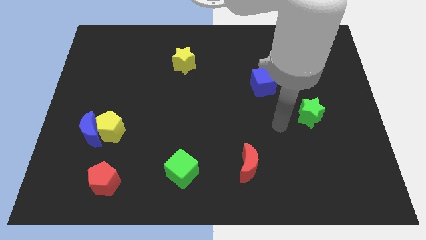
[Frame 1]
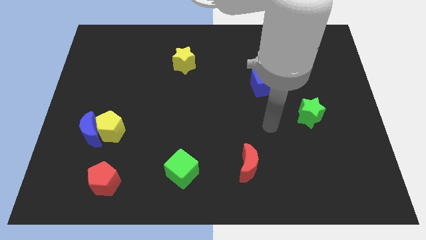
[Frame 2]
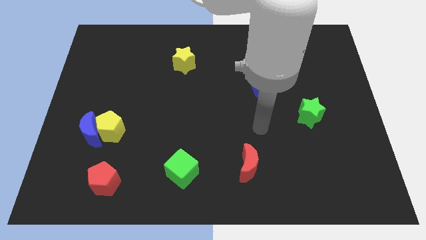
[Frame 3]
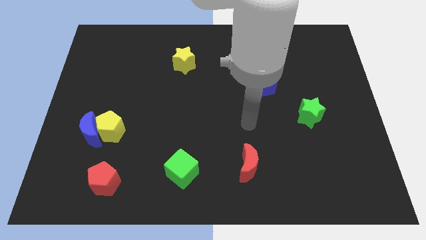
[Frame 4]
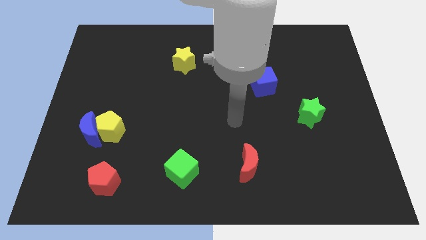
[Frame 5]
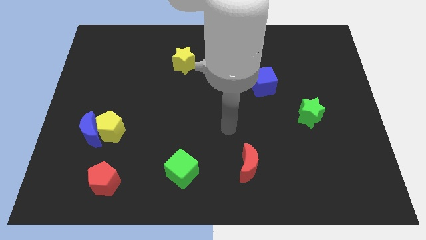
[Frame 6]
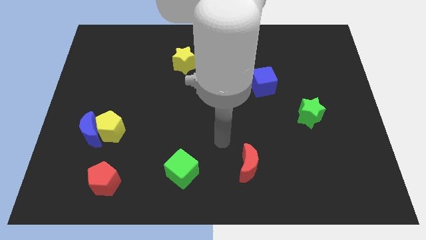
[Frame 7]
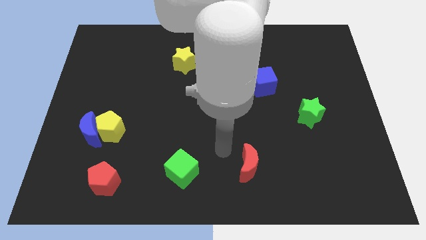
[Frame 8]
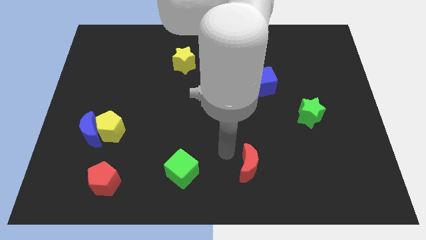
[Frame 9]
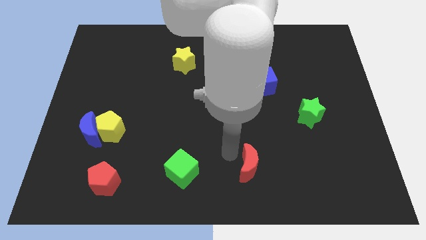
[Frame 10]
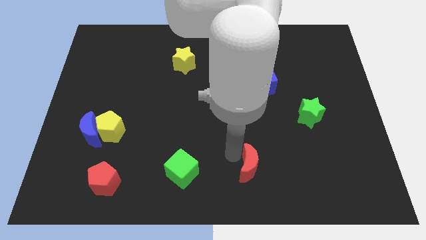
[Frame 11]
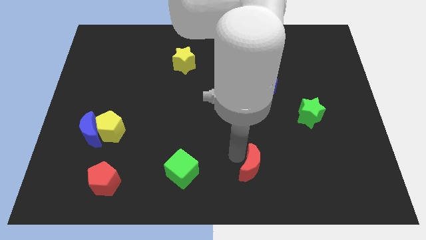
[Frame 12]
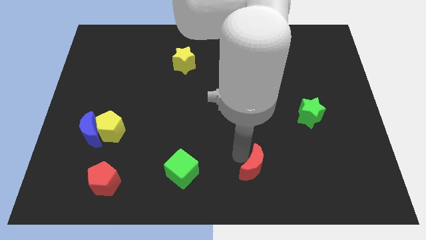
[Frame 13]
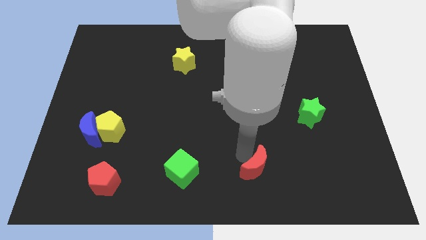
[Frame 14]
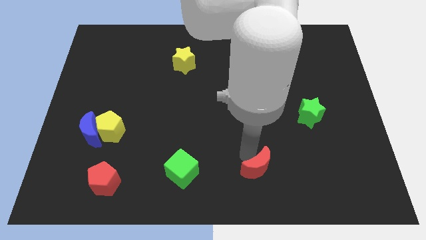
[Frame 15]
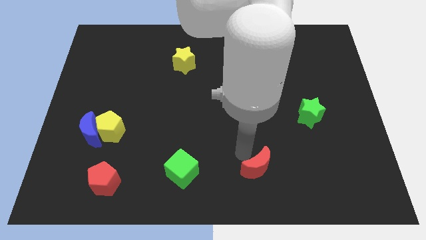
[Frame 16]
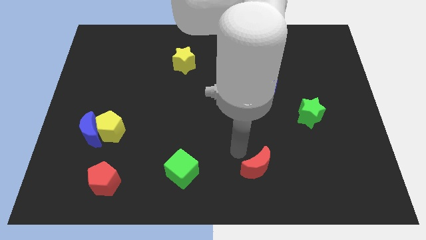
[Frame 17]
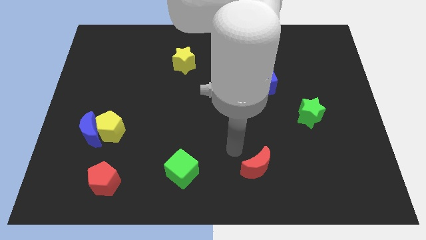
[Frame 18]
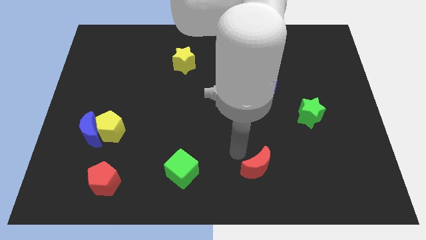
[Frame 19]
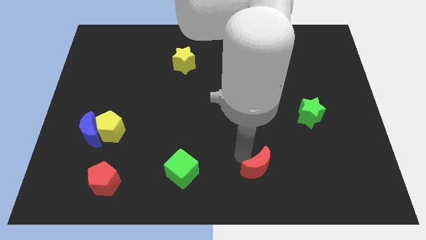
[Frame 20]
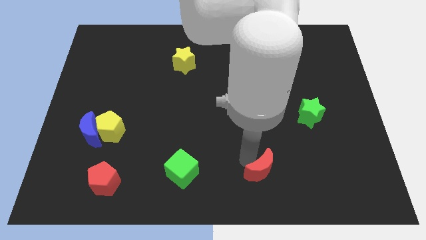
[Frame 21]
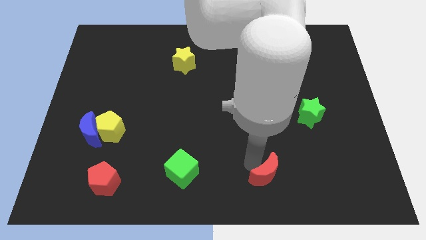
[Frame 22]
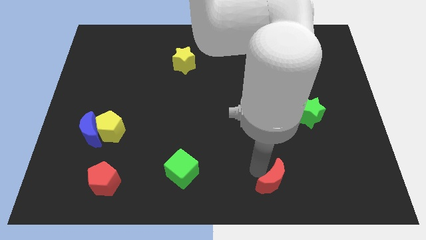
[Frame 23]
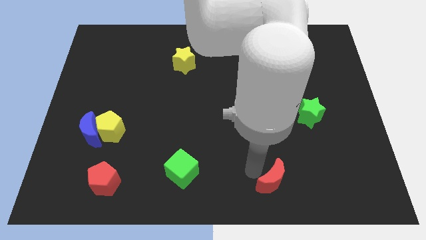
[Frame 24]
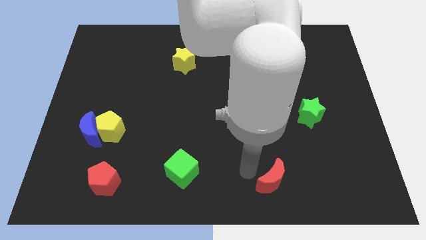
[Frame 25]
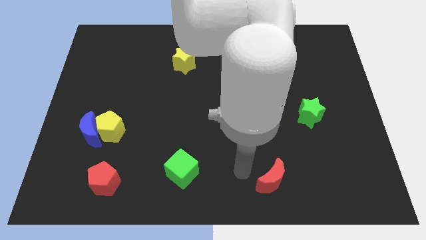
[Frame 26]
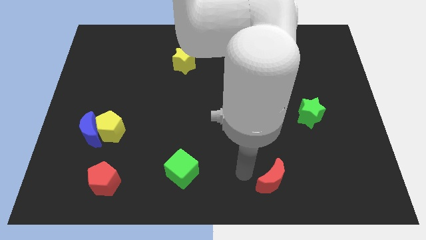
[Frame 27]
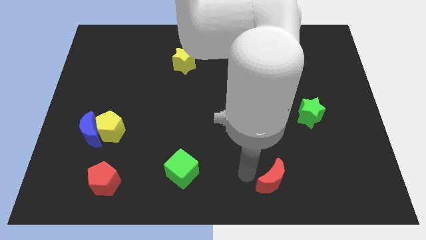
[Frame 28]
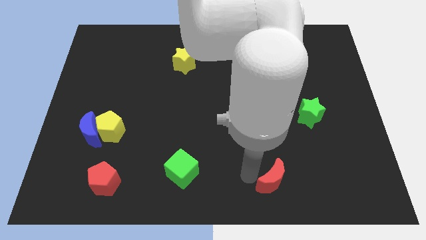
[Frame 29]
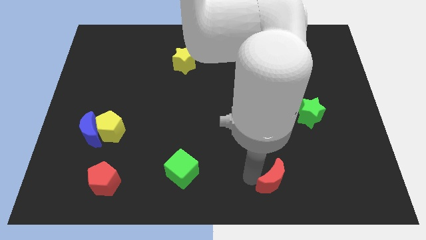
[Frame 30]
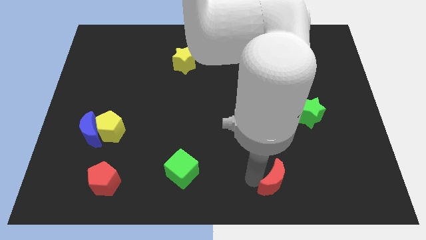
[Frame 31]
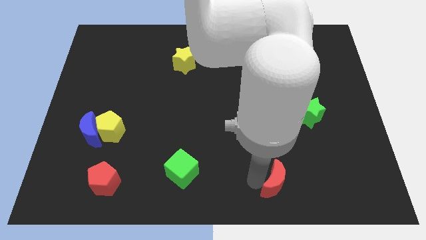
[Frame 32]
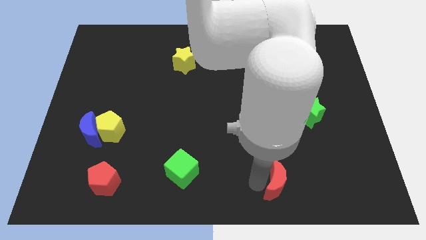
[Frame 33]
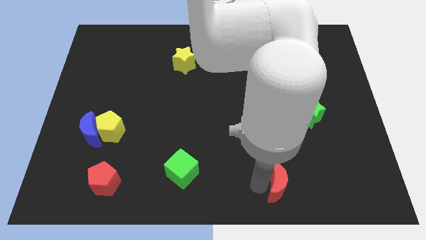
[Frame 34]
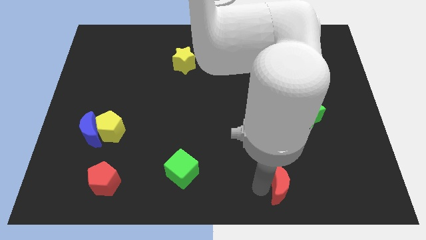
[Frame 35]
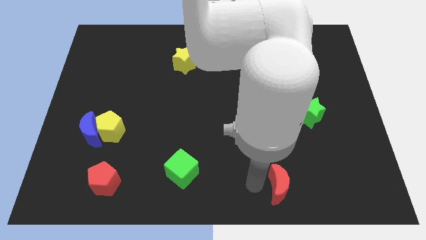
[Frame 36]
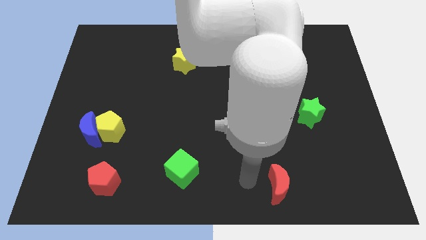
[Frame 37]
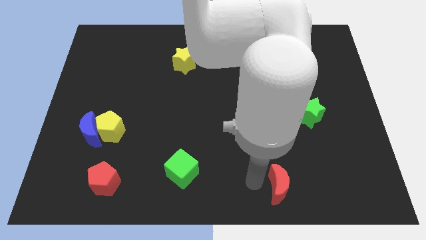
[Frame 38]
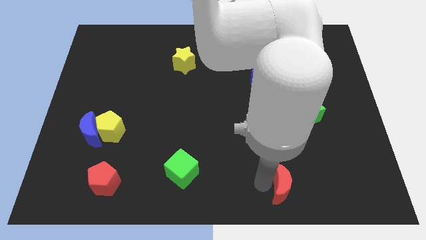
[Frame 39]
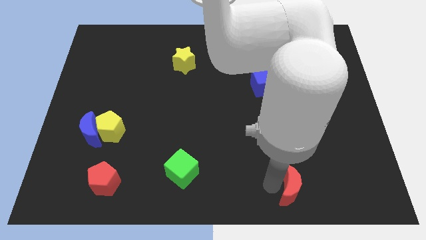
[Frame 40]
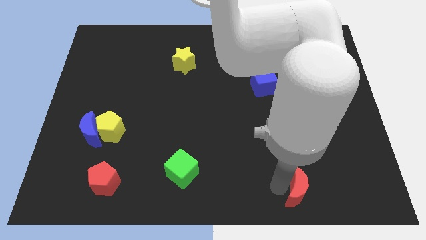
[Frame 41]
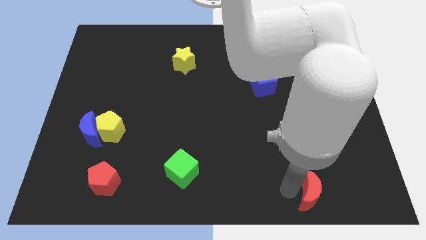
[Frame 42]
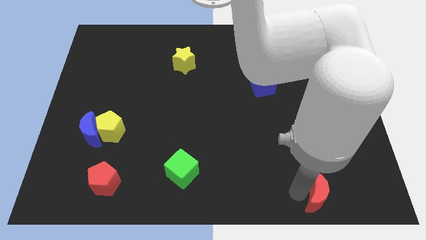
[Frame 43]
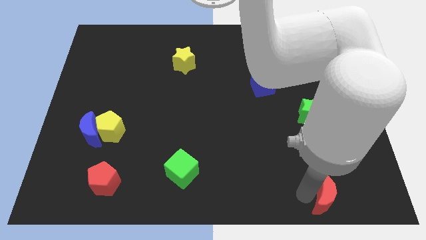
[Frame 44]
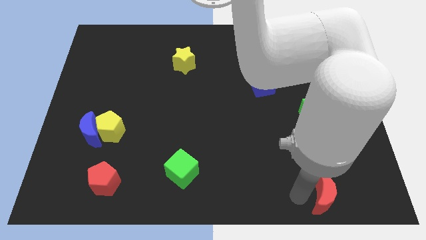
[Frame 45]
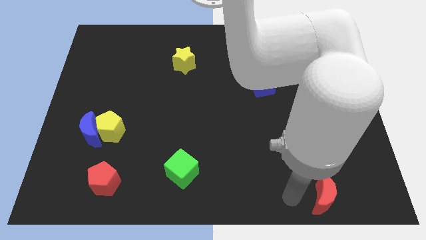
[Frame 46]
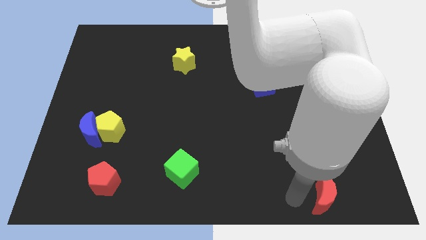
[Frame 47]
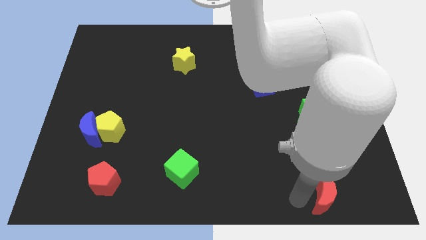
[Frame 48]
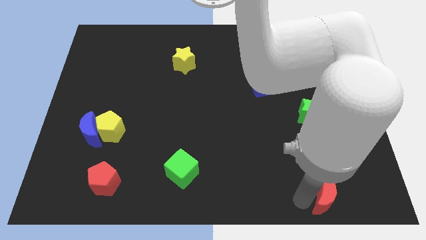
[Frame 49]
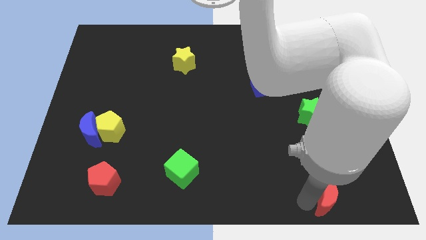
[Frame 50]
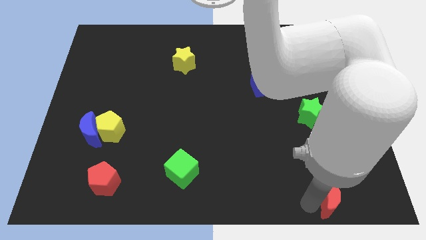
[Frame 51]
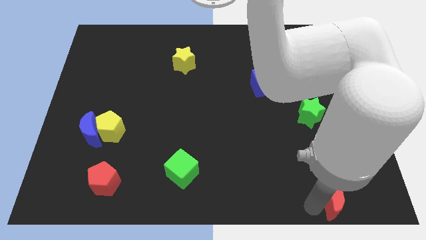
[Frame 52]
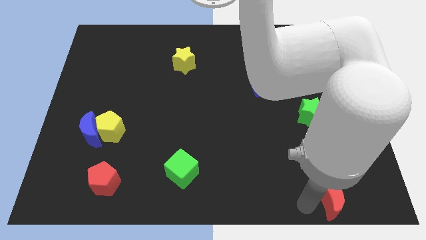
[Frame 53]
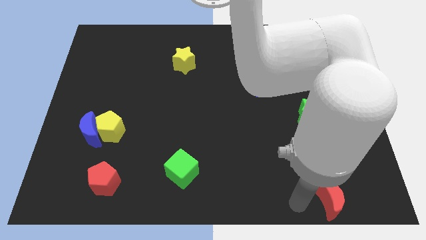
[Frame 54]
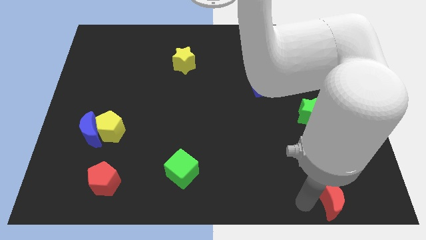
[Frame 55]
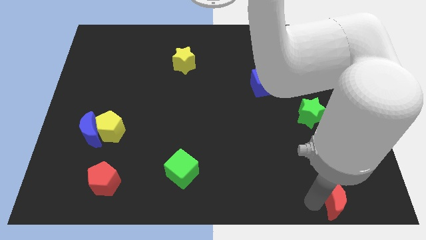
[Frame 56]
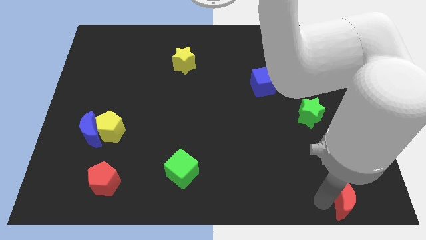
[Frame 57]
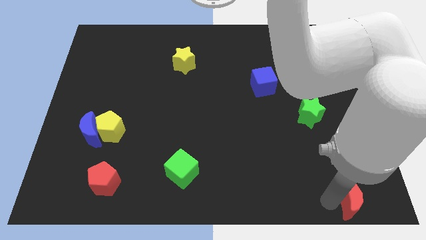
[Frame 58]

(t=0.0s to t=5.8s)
slide the red moon to the bottom right

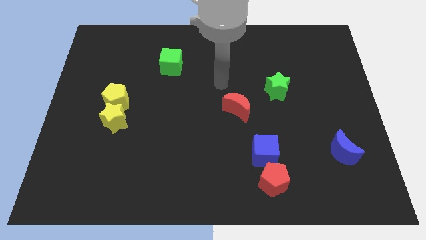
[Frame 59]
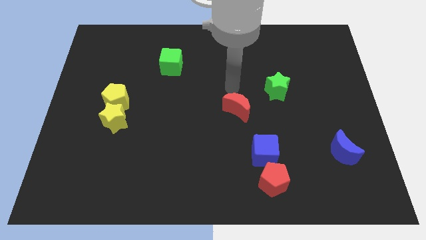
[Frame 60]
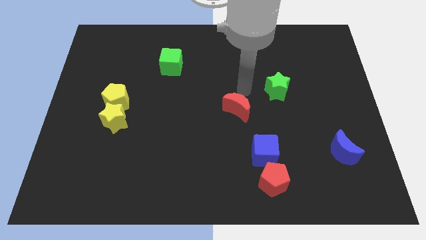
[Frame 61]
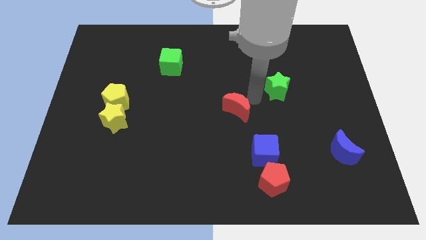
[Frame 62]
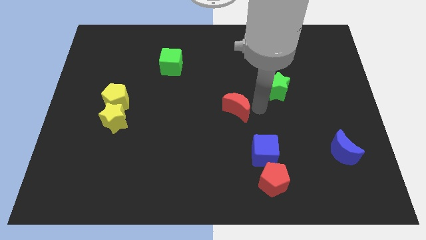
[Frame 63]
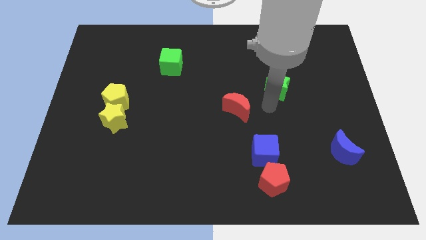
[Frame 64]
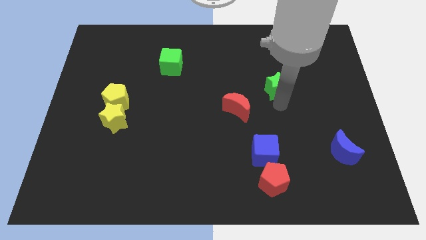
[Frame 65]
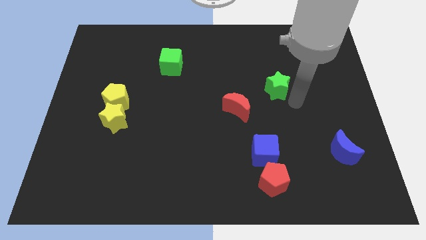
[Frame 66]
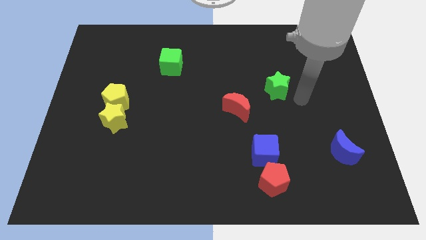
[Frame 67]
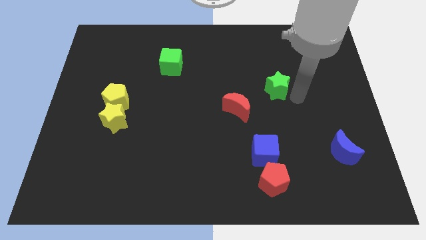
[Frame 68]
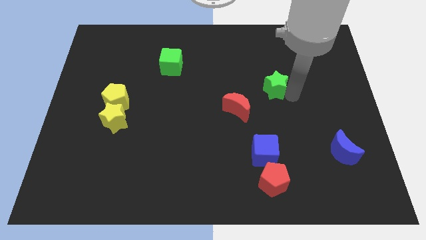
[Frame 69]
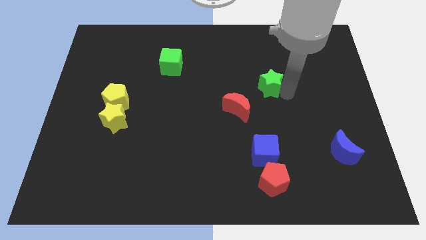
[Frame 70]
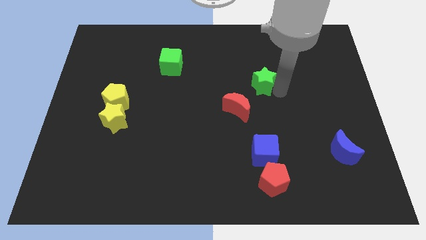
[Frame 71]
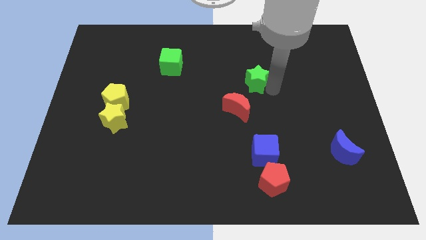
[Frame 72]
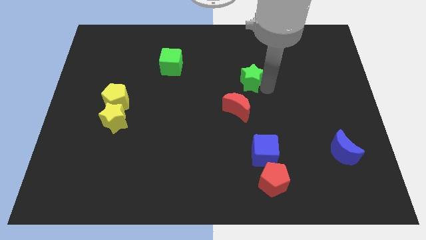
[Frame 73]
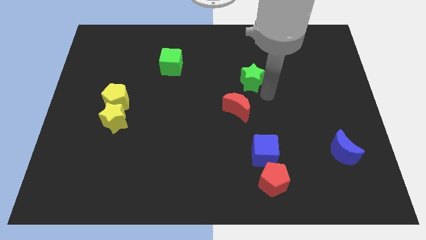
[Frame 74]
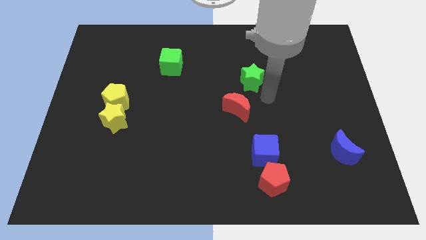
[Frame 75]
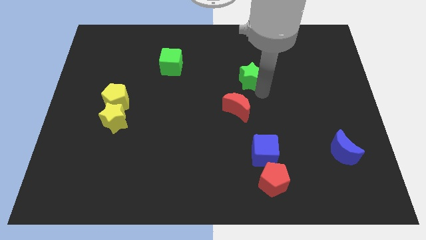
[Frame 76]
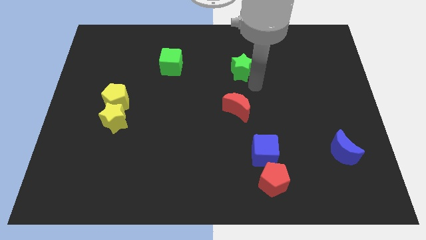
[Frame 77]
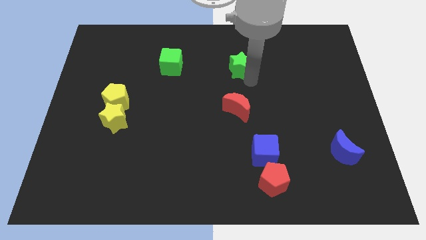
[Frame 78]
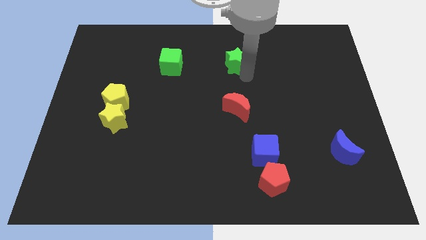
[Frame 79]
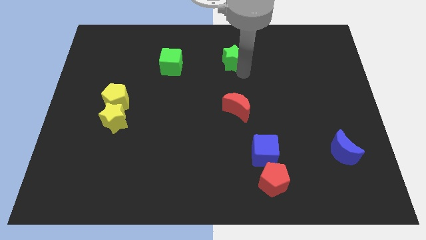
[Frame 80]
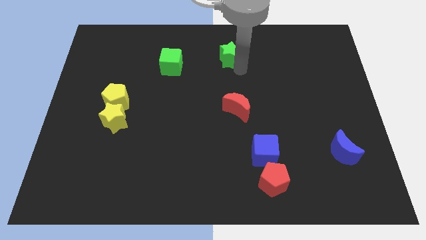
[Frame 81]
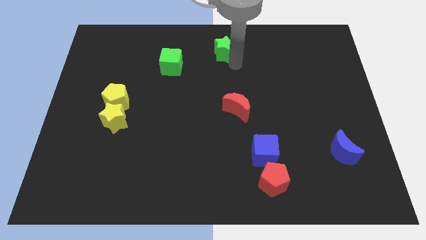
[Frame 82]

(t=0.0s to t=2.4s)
put the green star to the top
